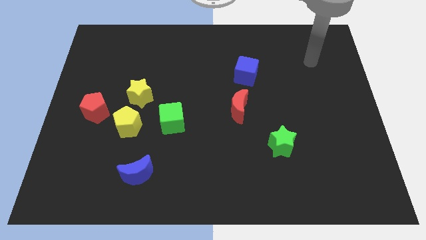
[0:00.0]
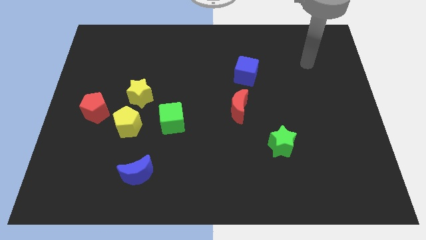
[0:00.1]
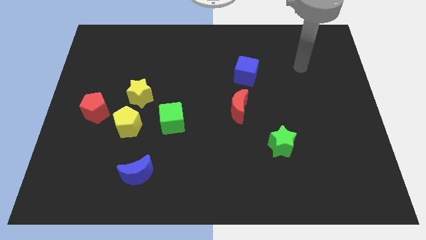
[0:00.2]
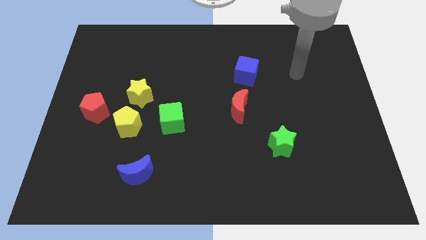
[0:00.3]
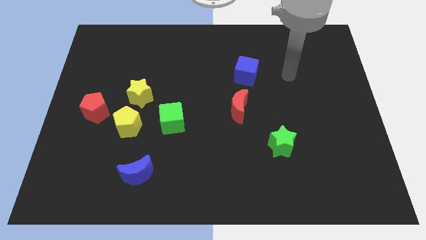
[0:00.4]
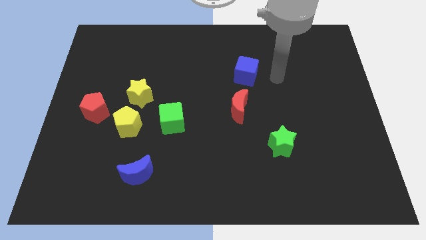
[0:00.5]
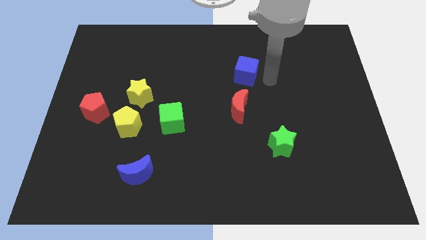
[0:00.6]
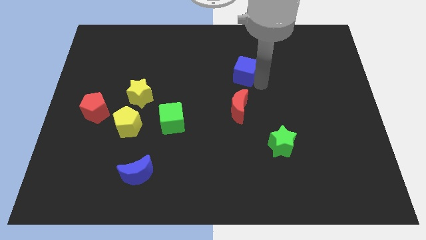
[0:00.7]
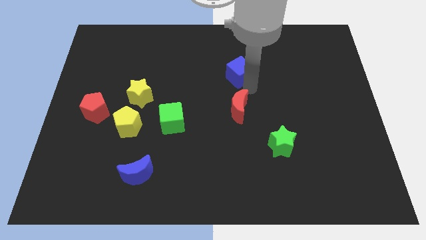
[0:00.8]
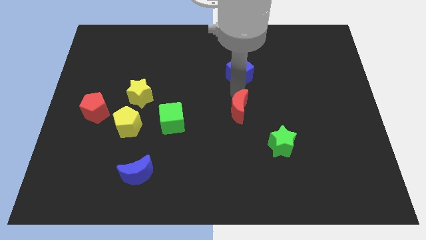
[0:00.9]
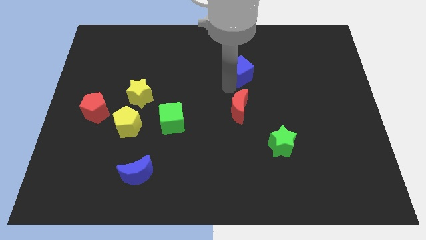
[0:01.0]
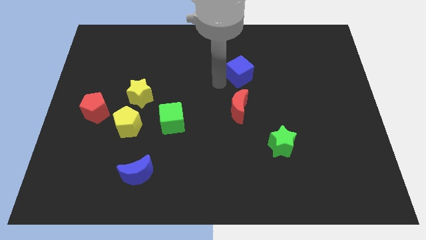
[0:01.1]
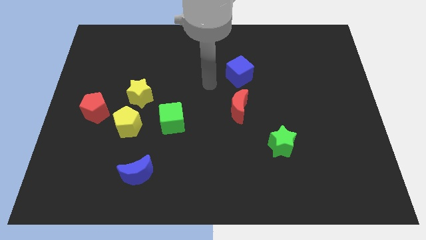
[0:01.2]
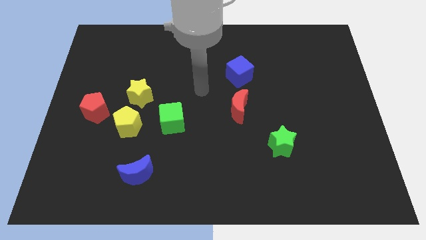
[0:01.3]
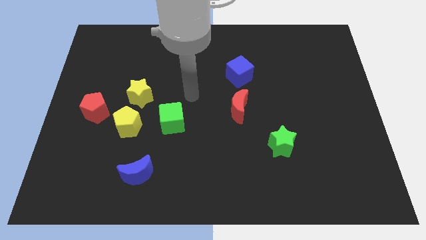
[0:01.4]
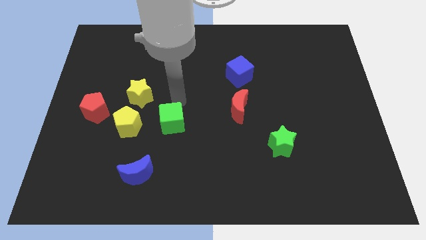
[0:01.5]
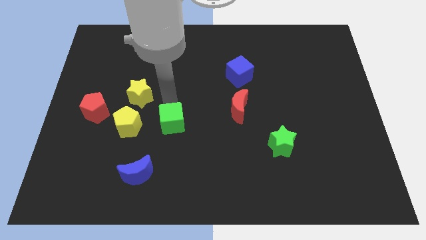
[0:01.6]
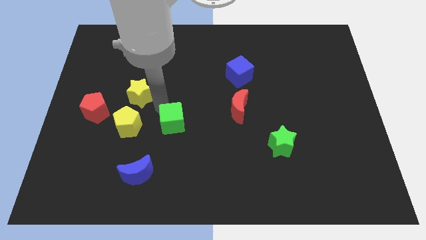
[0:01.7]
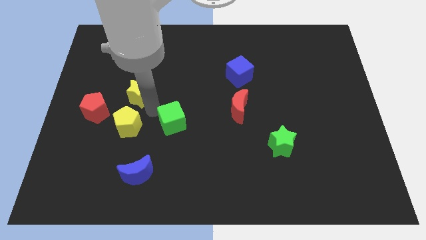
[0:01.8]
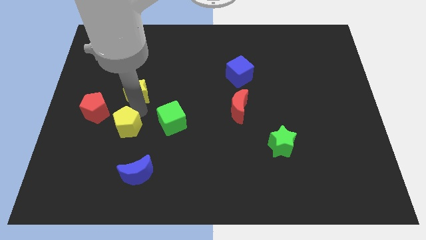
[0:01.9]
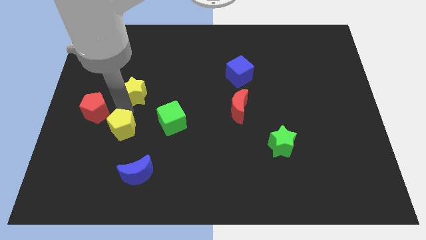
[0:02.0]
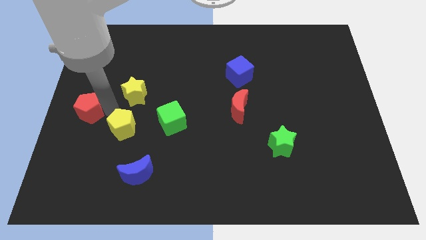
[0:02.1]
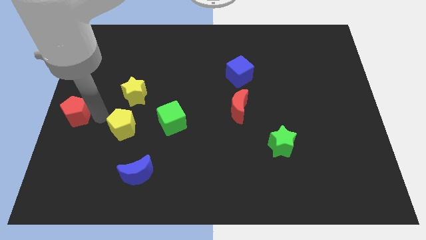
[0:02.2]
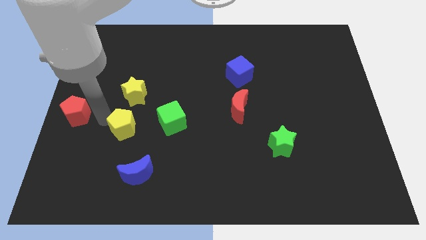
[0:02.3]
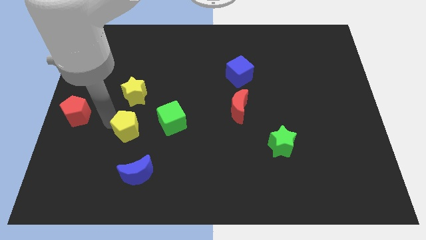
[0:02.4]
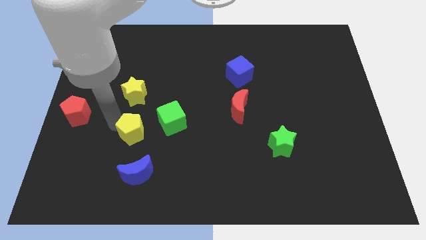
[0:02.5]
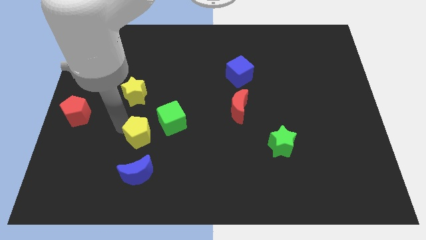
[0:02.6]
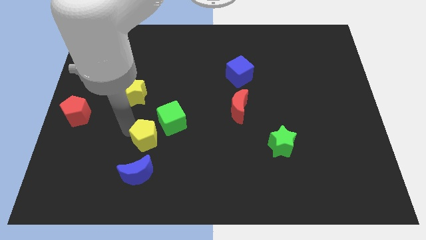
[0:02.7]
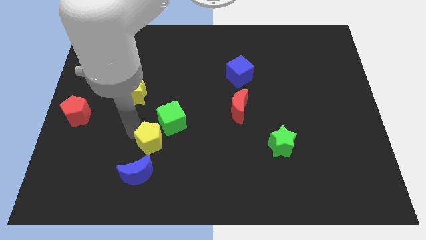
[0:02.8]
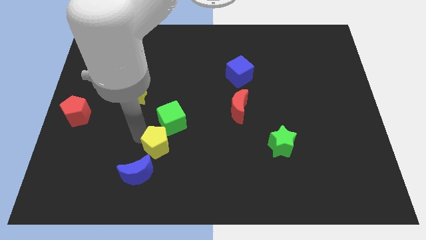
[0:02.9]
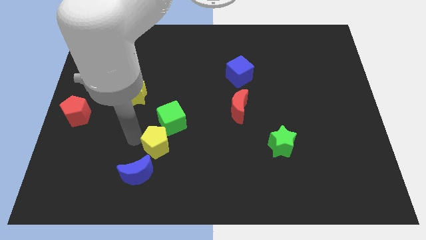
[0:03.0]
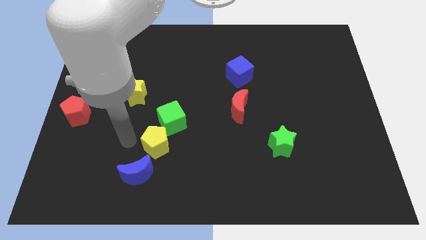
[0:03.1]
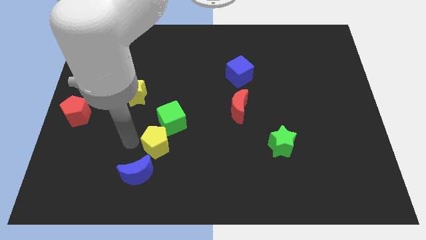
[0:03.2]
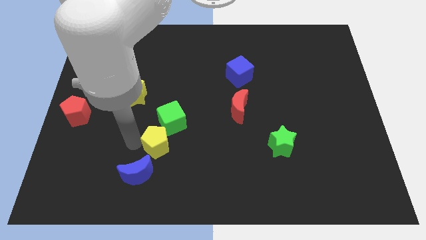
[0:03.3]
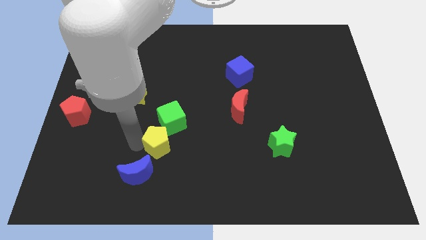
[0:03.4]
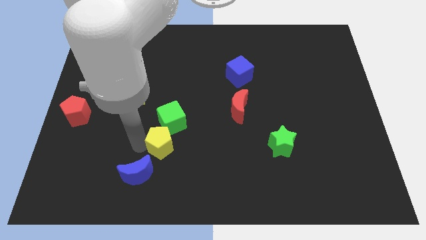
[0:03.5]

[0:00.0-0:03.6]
slide the yellow pentagon to the right slightly

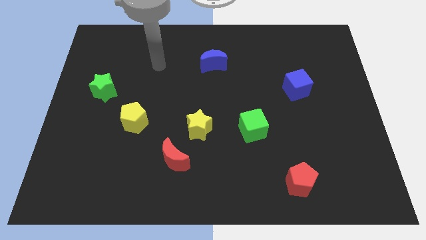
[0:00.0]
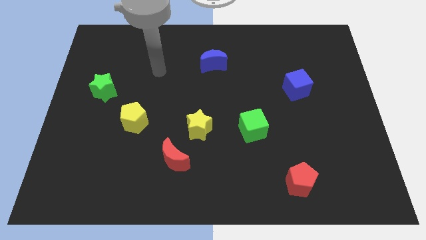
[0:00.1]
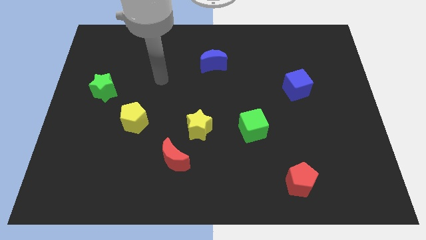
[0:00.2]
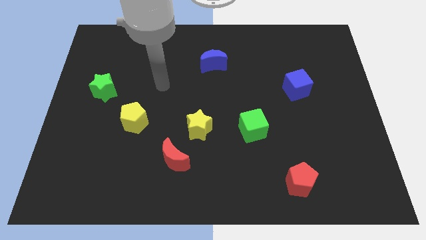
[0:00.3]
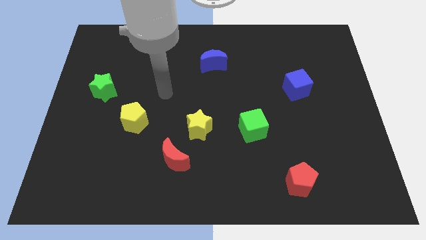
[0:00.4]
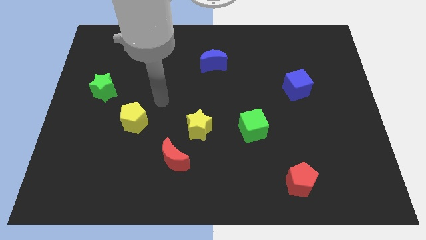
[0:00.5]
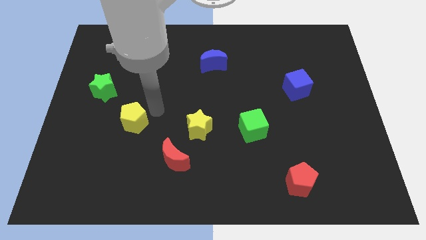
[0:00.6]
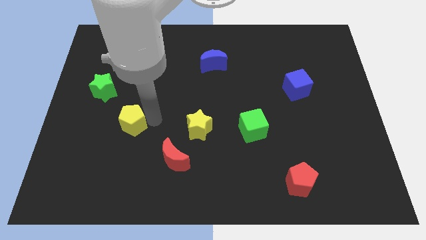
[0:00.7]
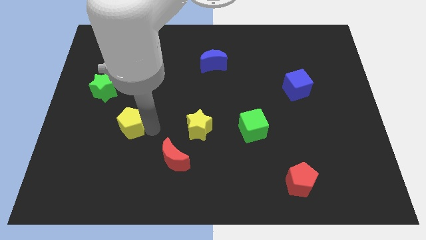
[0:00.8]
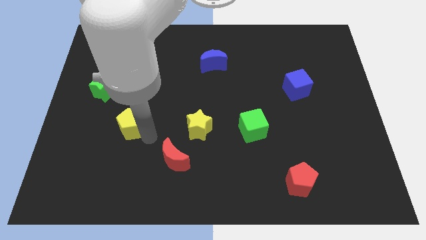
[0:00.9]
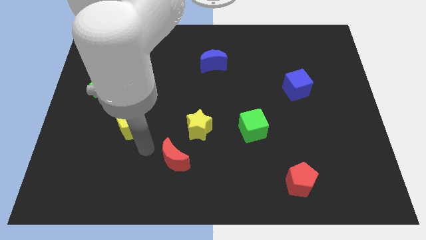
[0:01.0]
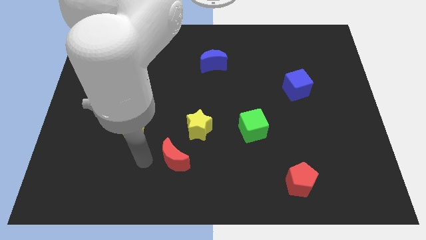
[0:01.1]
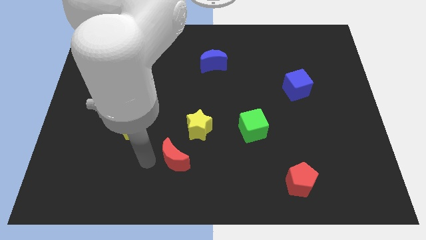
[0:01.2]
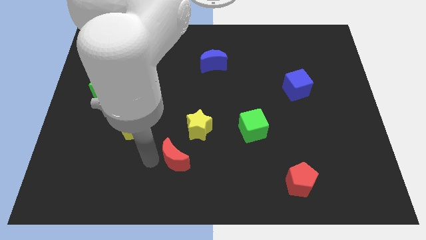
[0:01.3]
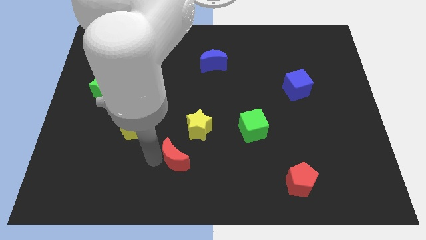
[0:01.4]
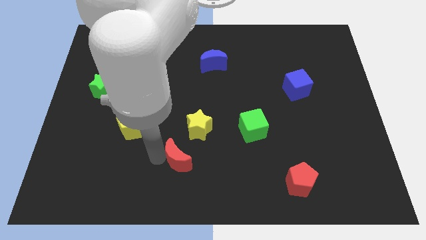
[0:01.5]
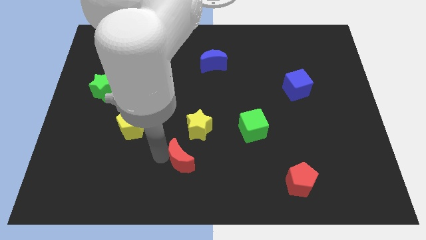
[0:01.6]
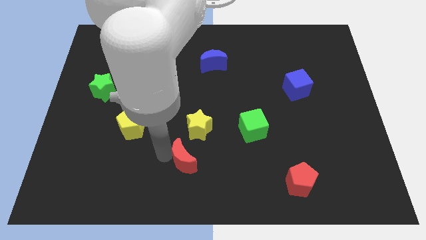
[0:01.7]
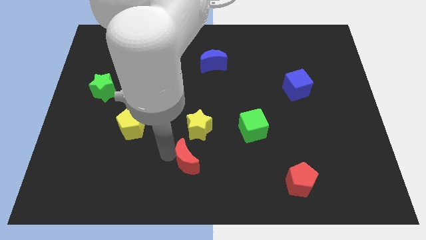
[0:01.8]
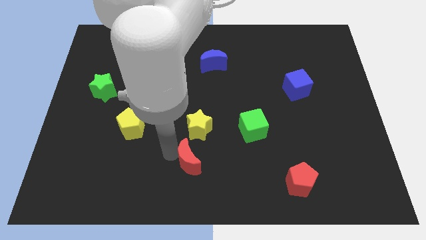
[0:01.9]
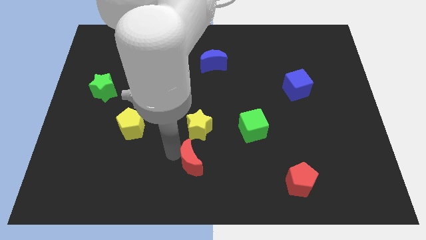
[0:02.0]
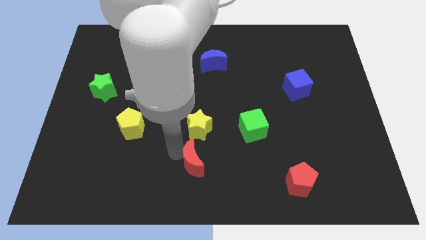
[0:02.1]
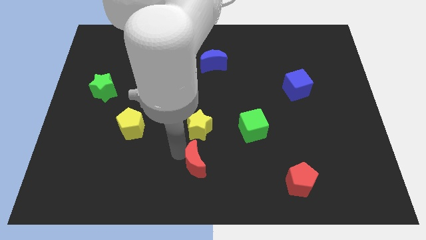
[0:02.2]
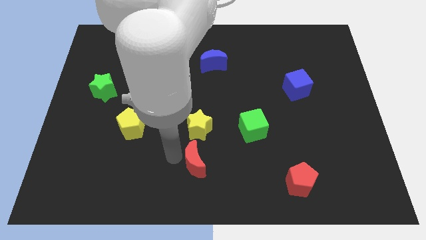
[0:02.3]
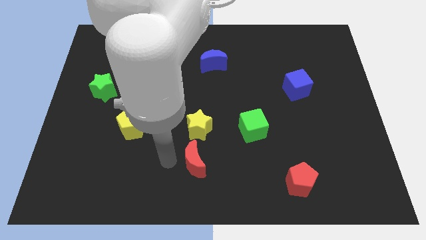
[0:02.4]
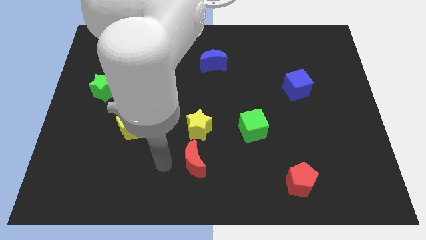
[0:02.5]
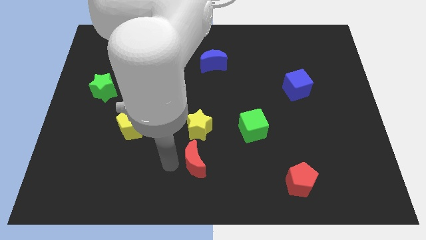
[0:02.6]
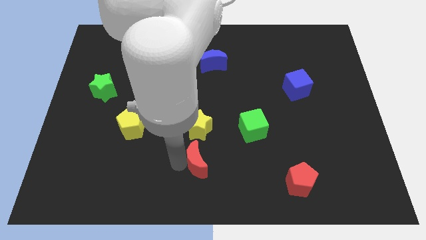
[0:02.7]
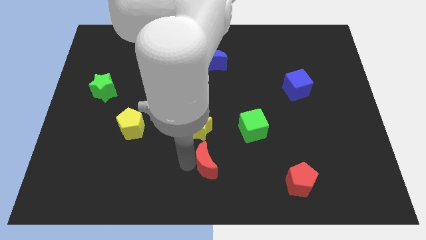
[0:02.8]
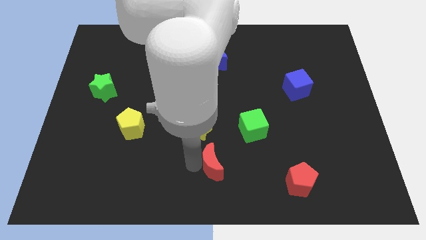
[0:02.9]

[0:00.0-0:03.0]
push the red moon somewhat to the right

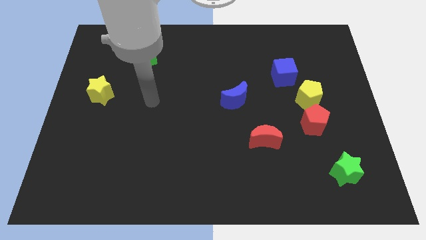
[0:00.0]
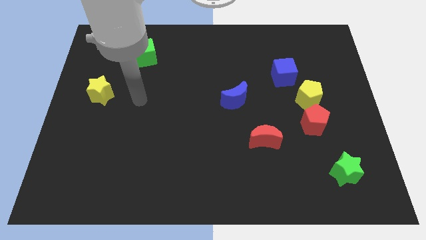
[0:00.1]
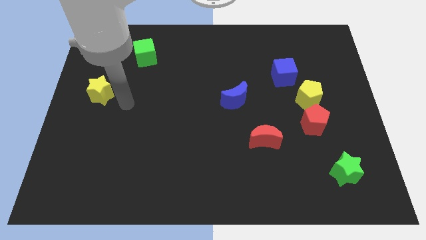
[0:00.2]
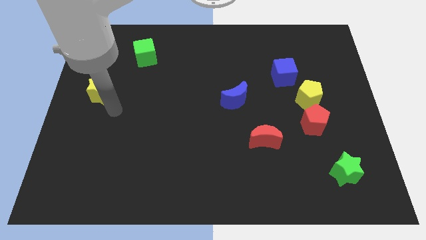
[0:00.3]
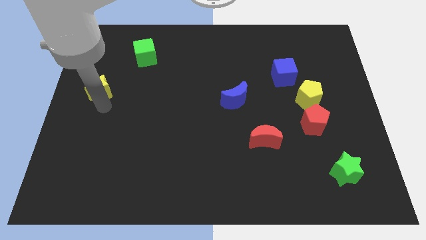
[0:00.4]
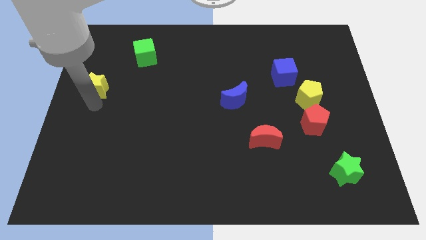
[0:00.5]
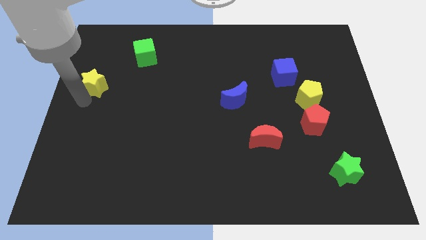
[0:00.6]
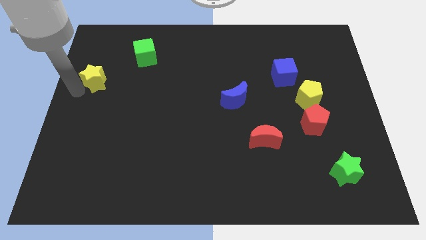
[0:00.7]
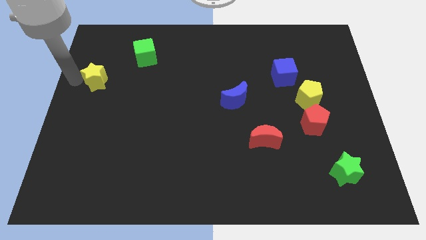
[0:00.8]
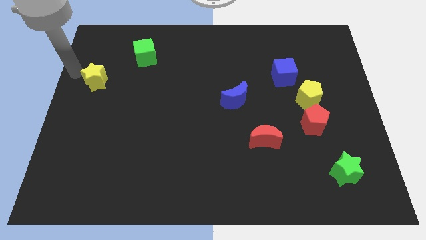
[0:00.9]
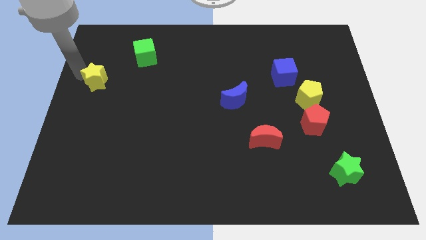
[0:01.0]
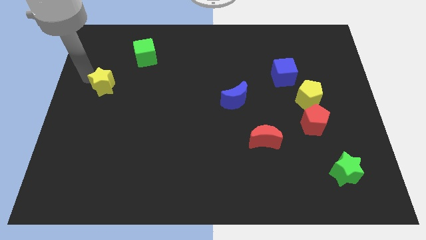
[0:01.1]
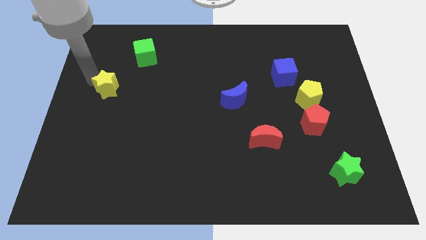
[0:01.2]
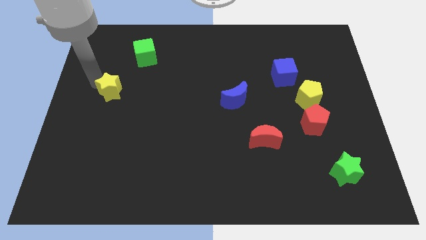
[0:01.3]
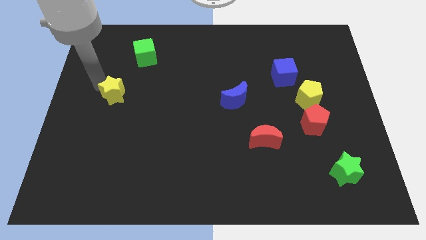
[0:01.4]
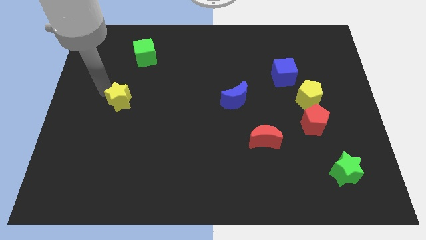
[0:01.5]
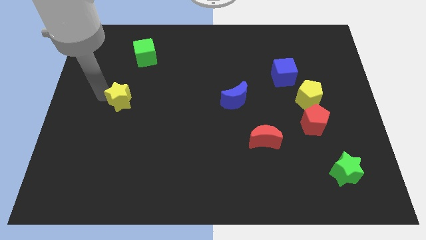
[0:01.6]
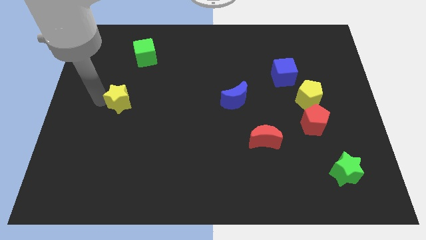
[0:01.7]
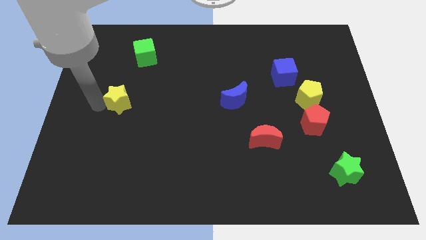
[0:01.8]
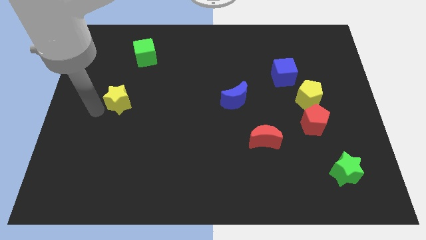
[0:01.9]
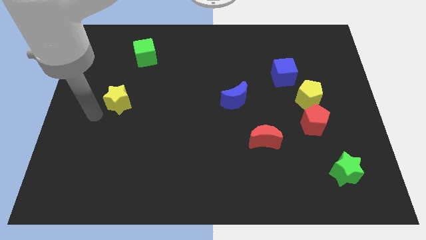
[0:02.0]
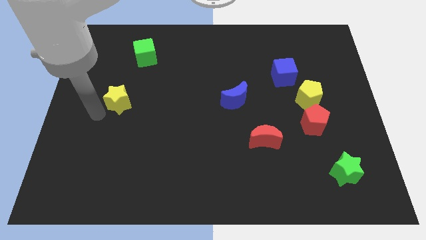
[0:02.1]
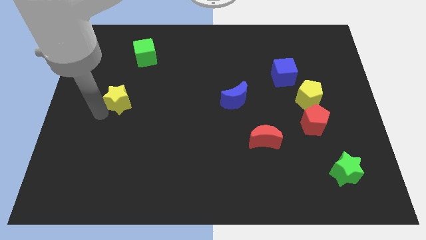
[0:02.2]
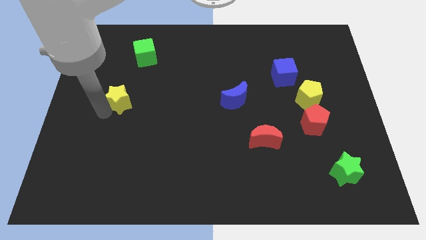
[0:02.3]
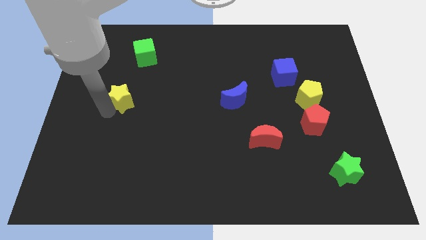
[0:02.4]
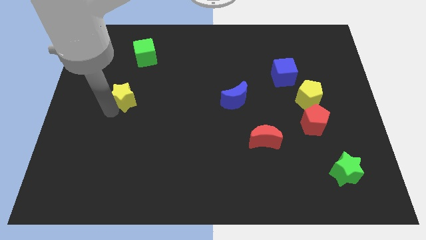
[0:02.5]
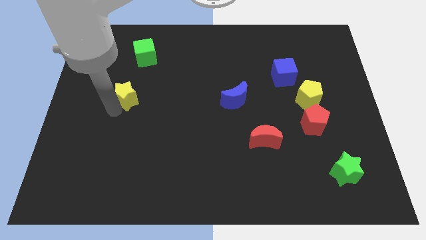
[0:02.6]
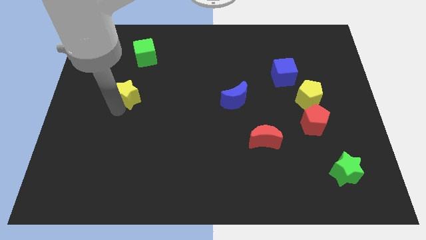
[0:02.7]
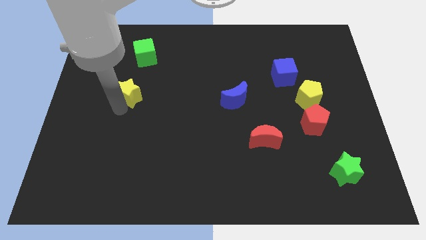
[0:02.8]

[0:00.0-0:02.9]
slightly move the yellow star right
